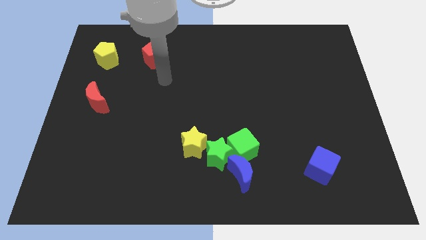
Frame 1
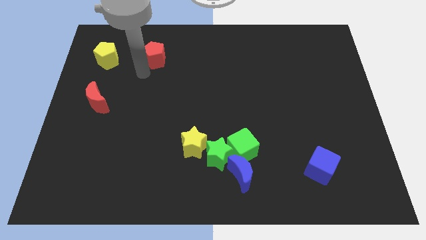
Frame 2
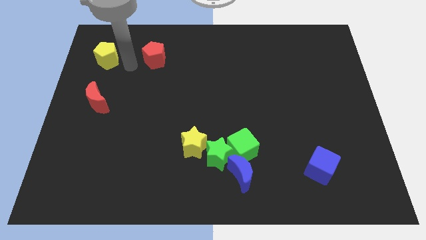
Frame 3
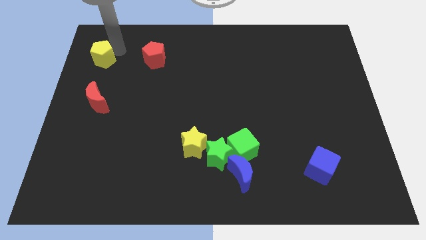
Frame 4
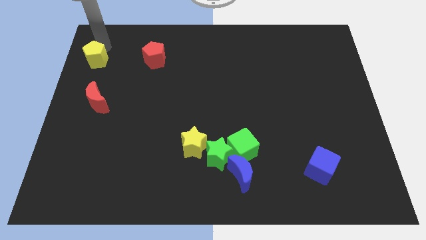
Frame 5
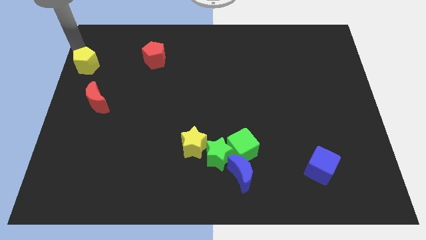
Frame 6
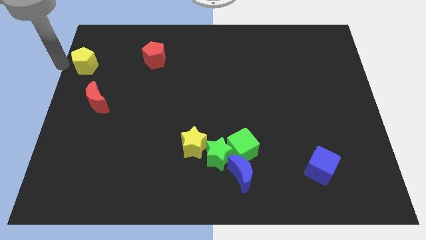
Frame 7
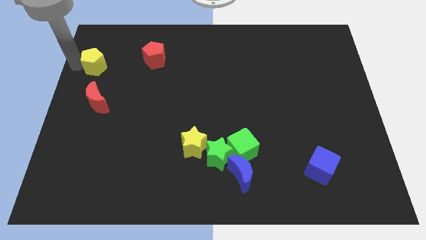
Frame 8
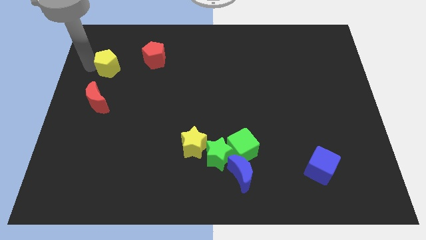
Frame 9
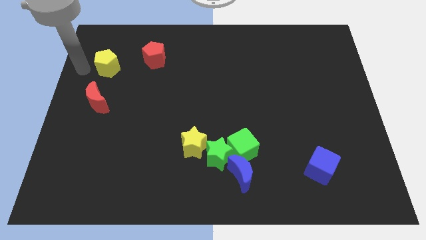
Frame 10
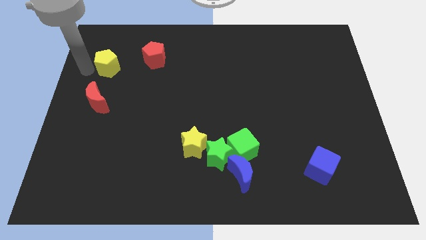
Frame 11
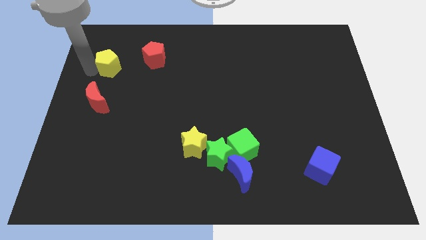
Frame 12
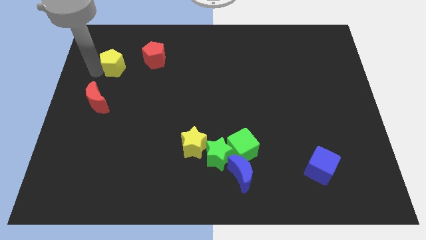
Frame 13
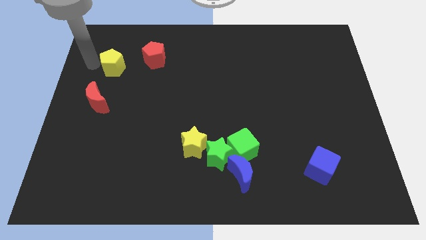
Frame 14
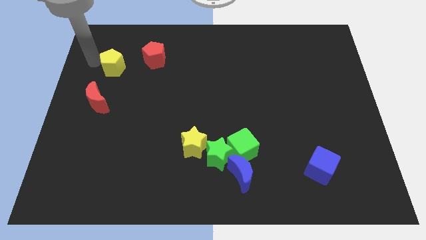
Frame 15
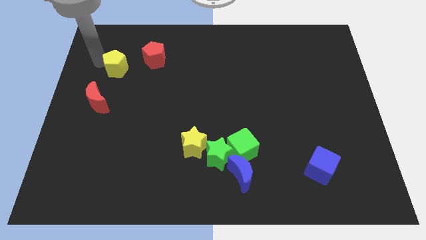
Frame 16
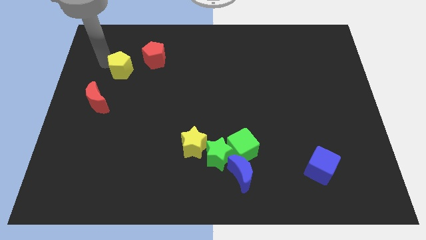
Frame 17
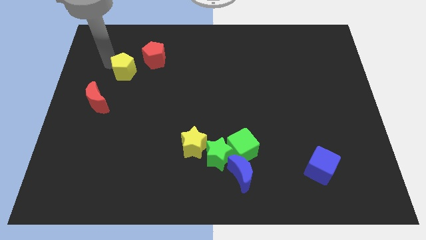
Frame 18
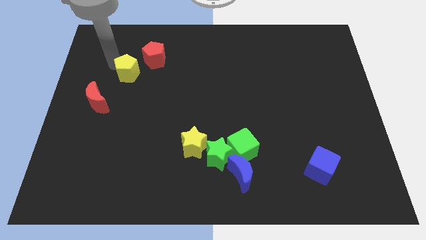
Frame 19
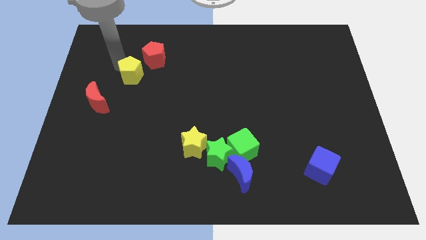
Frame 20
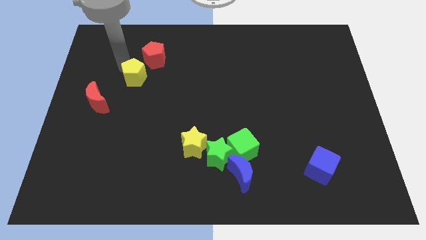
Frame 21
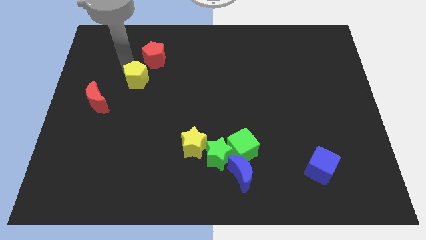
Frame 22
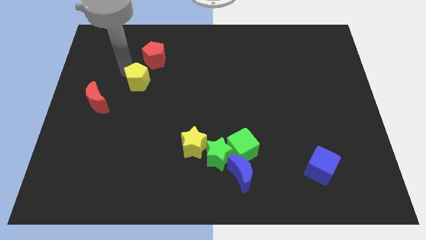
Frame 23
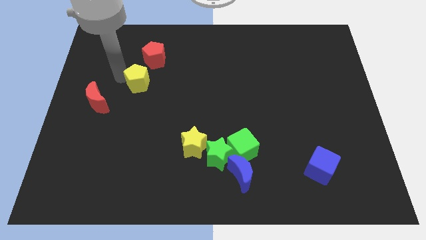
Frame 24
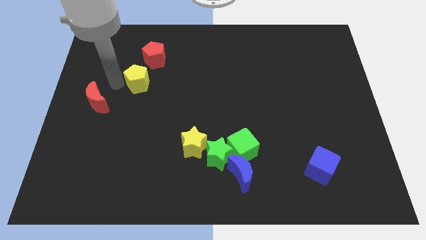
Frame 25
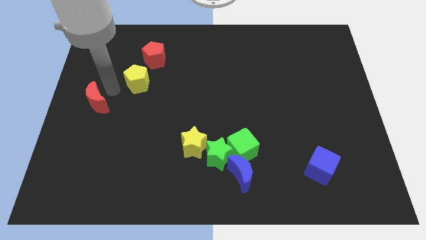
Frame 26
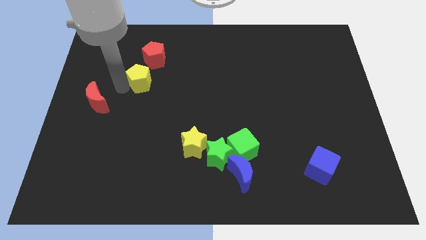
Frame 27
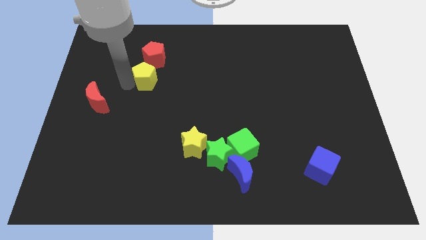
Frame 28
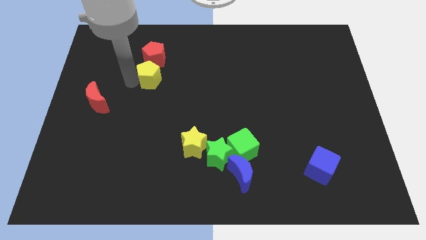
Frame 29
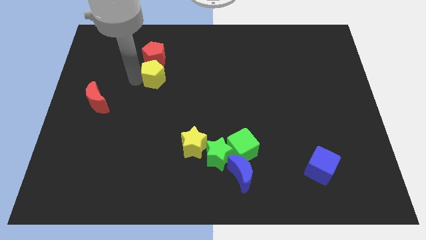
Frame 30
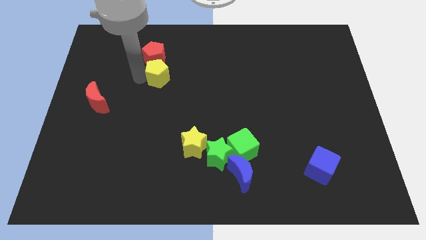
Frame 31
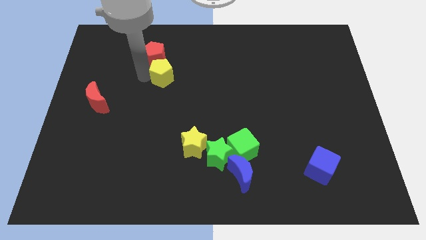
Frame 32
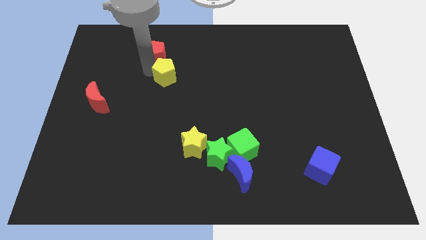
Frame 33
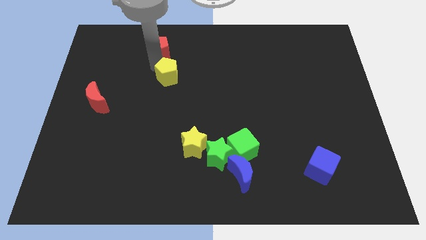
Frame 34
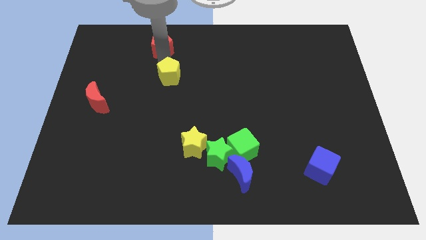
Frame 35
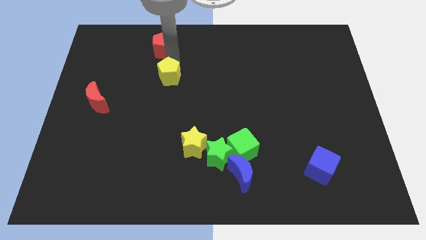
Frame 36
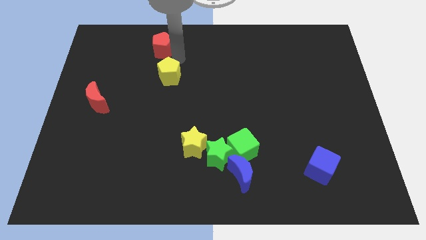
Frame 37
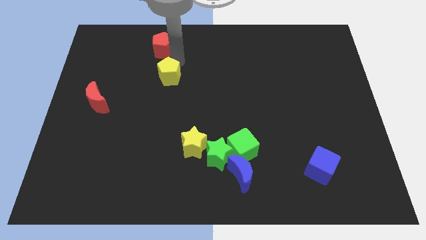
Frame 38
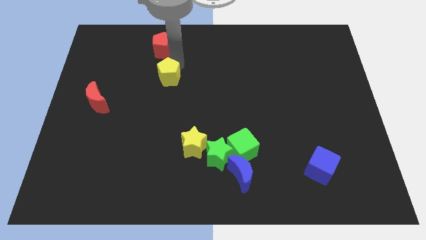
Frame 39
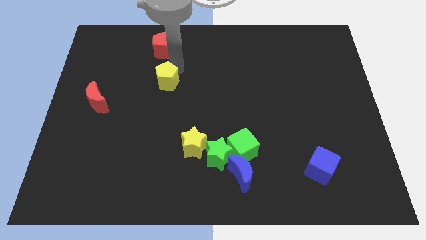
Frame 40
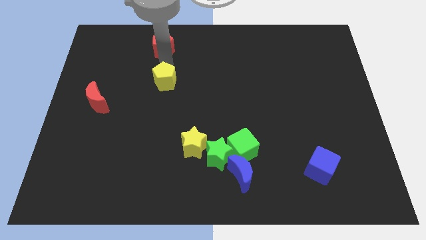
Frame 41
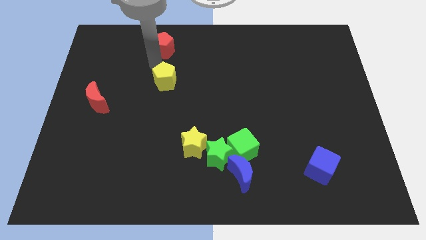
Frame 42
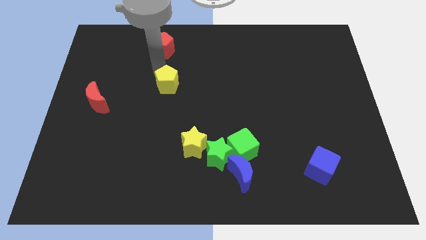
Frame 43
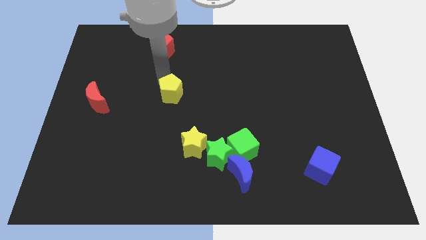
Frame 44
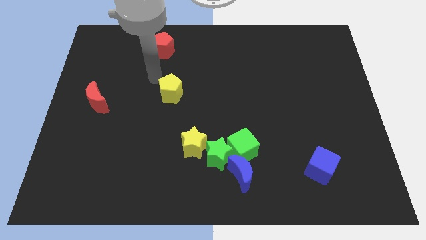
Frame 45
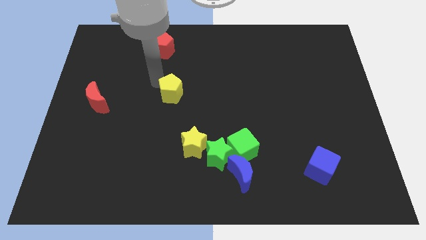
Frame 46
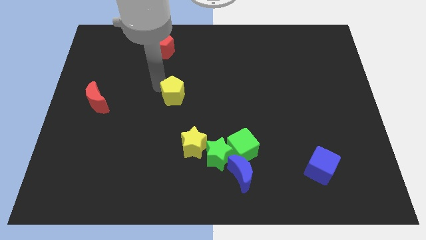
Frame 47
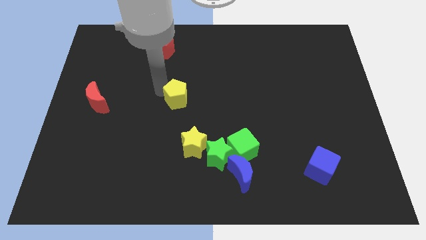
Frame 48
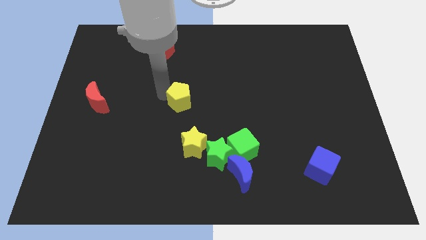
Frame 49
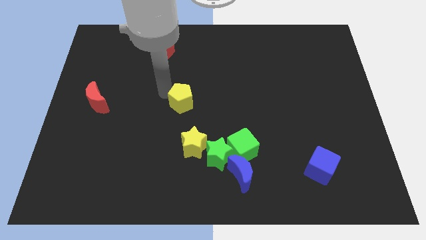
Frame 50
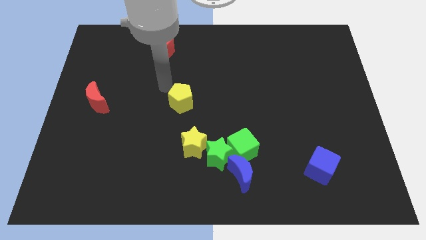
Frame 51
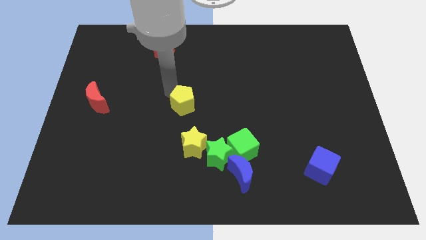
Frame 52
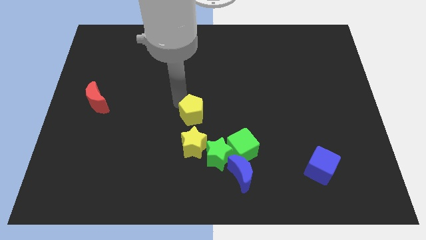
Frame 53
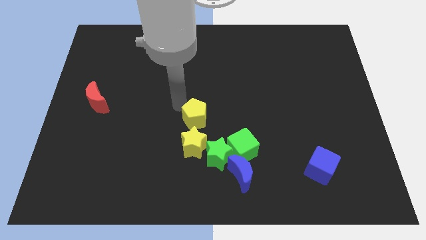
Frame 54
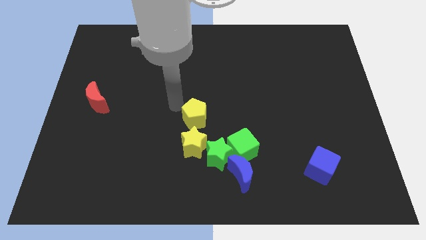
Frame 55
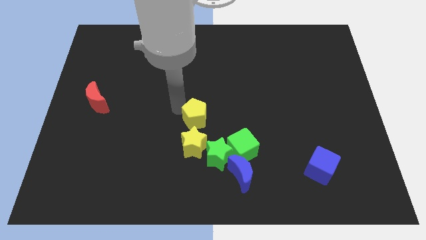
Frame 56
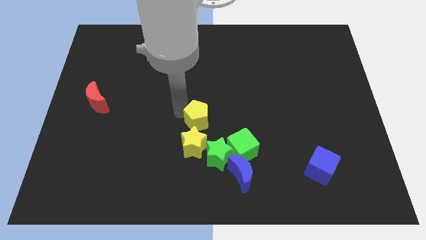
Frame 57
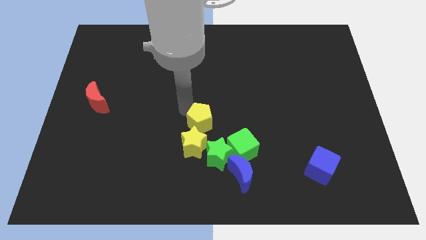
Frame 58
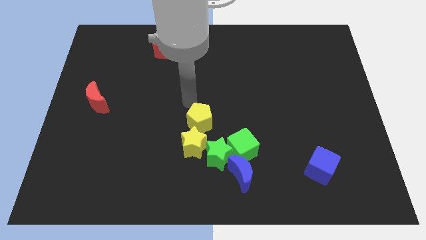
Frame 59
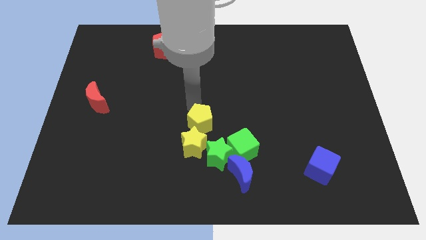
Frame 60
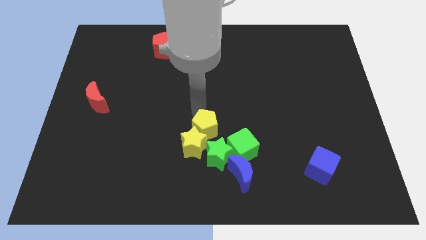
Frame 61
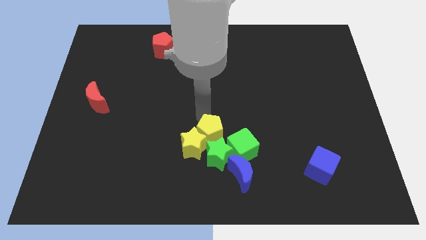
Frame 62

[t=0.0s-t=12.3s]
put the yellow pentagon next to the green star

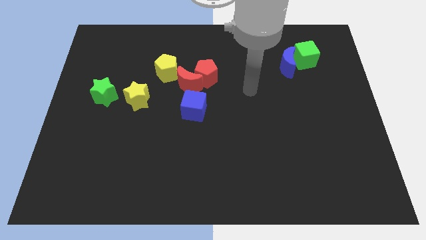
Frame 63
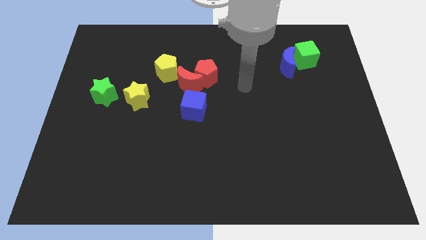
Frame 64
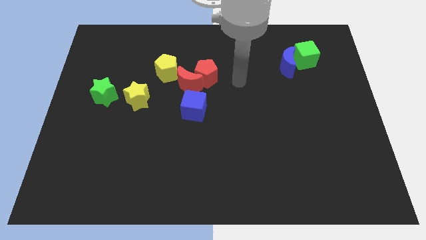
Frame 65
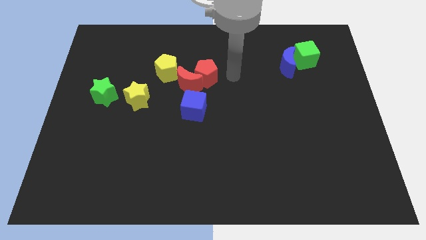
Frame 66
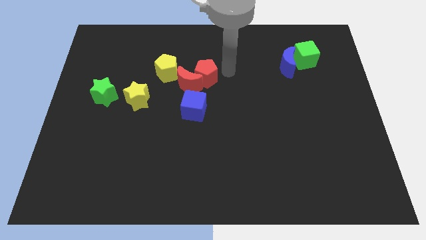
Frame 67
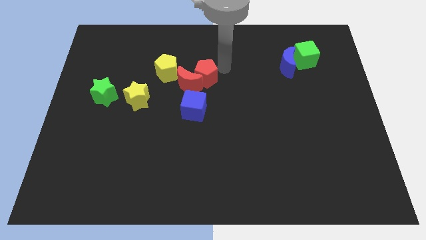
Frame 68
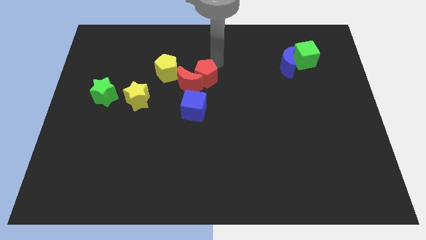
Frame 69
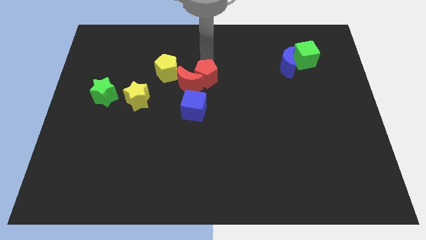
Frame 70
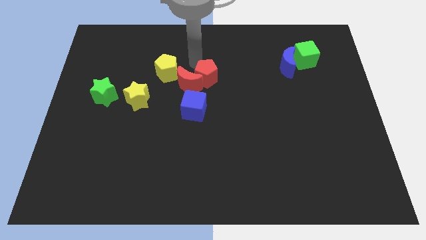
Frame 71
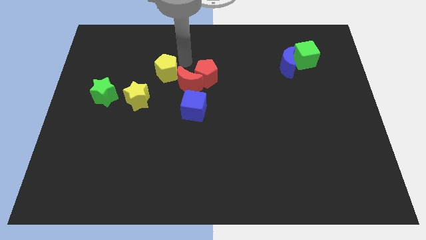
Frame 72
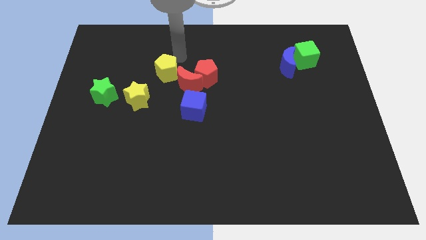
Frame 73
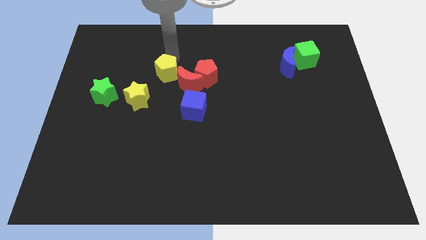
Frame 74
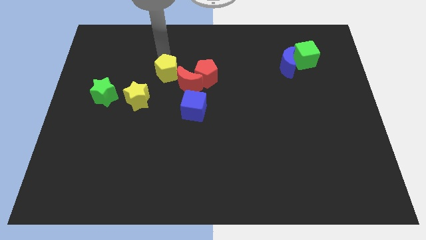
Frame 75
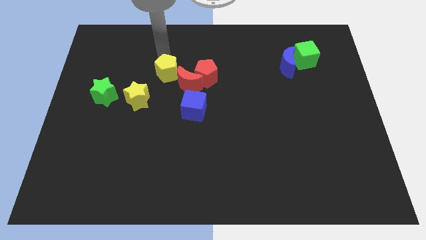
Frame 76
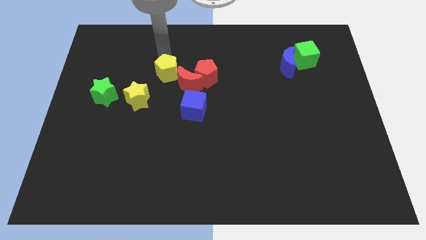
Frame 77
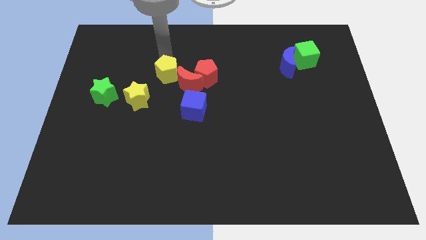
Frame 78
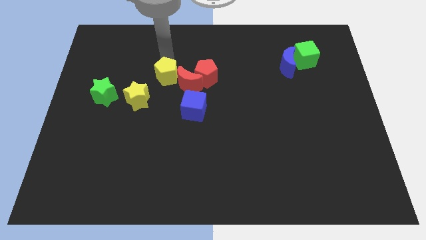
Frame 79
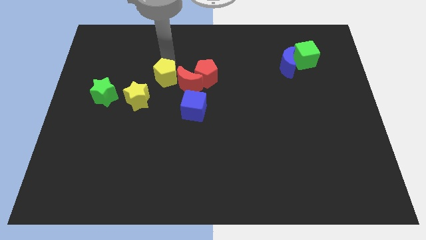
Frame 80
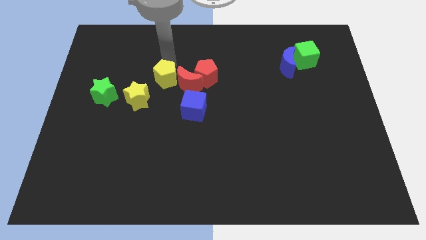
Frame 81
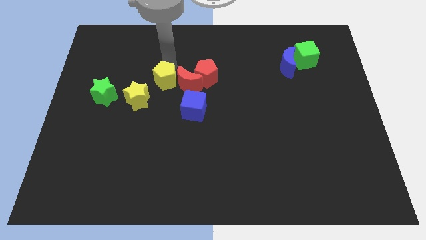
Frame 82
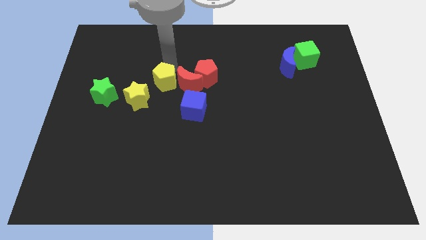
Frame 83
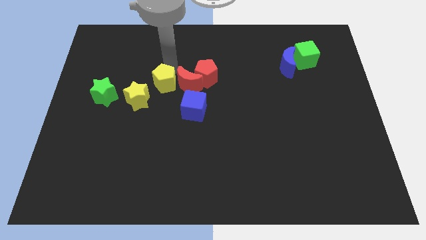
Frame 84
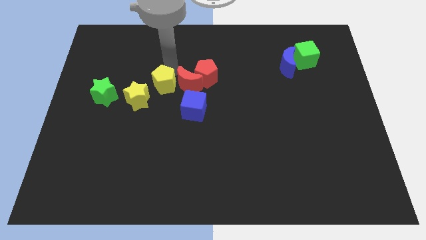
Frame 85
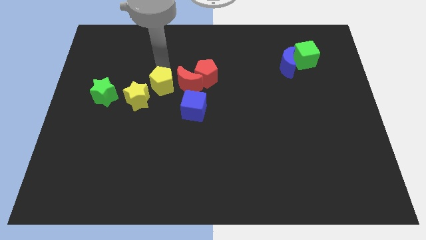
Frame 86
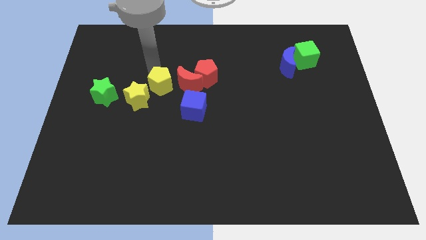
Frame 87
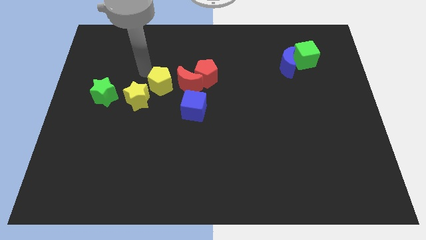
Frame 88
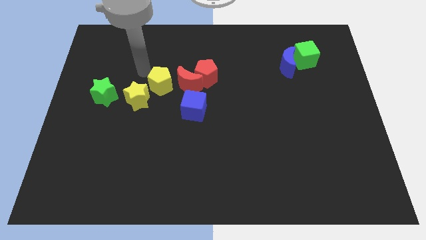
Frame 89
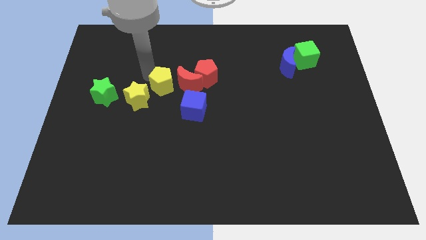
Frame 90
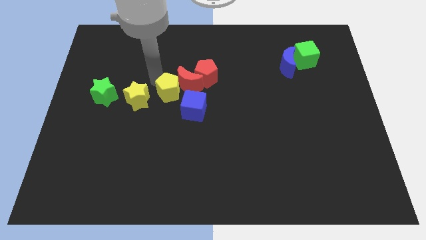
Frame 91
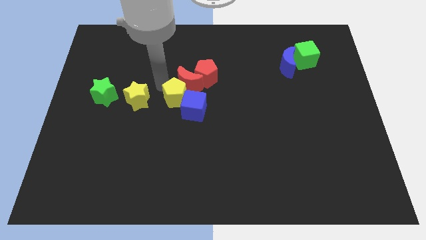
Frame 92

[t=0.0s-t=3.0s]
move the yellow pentagon to the blue cube
